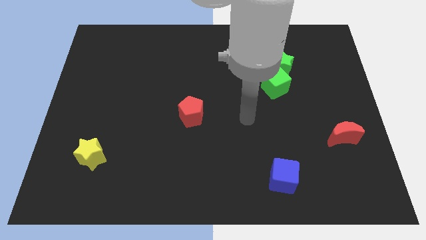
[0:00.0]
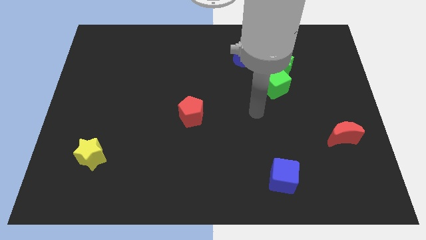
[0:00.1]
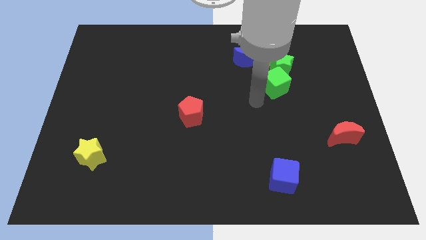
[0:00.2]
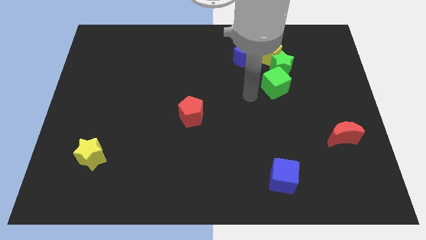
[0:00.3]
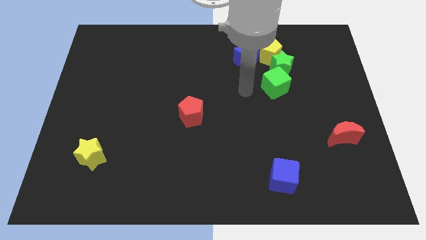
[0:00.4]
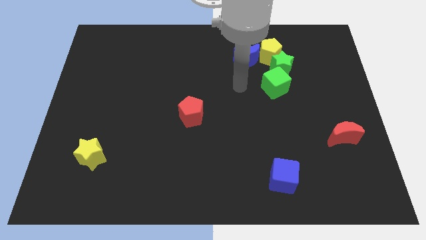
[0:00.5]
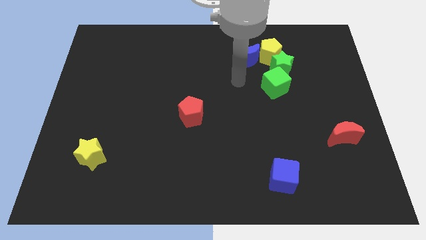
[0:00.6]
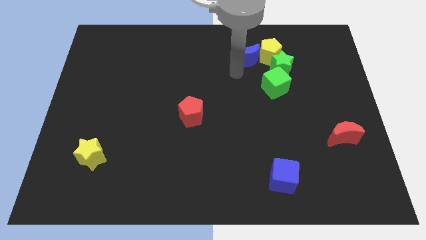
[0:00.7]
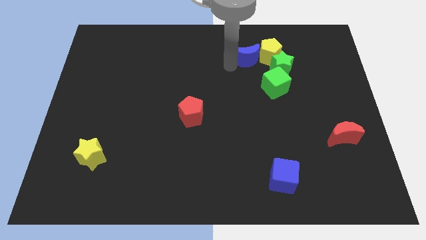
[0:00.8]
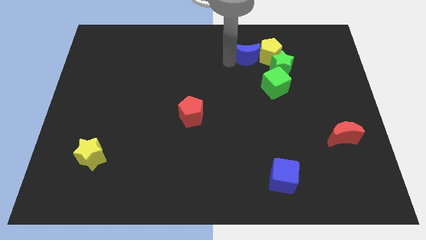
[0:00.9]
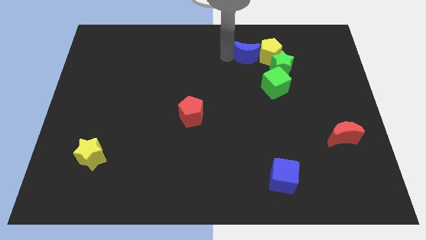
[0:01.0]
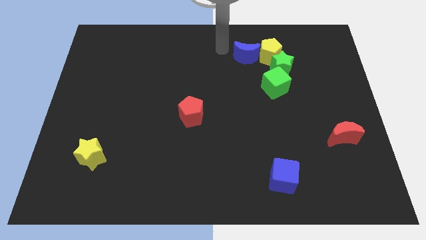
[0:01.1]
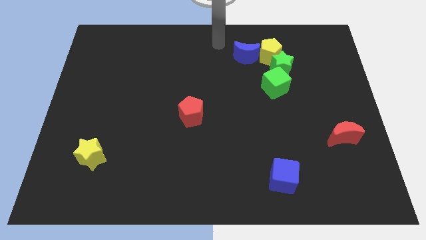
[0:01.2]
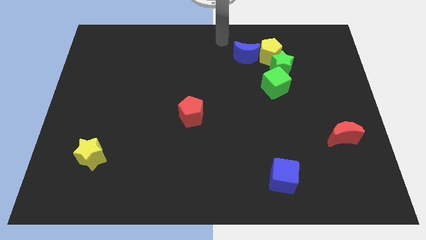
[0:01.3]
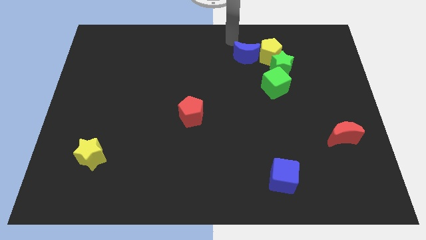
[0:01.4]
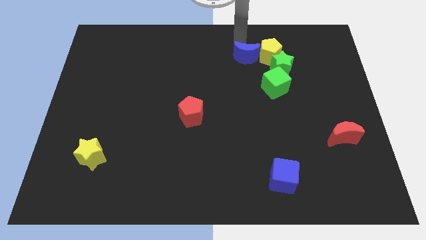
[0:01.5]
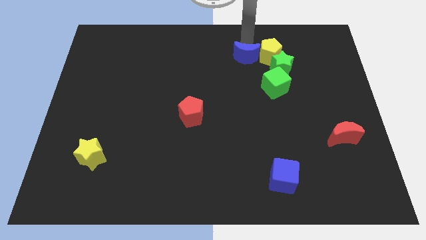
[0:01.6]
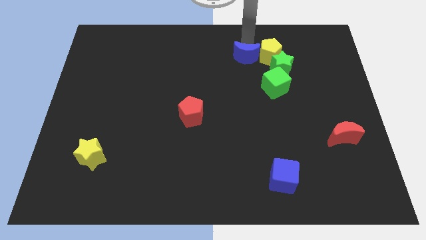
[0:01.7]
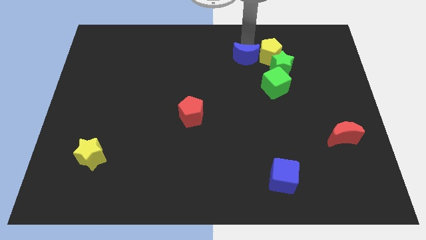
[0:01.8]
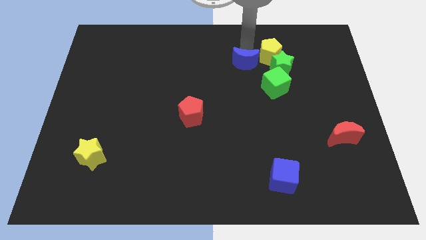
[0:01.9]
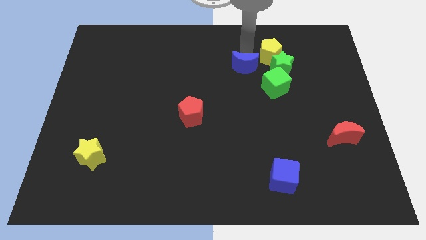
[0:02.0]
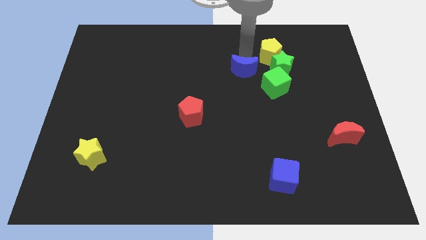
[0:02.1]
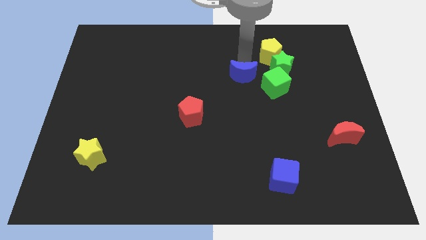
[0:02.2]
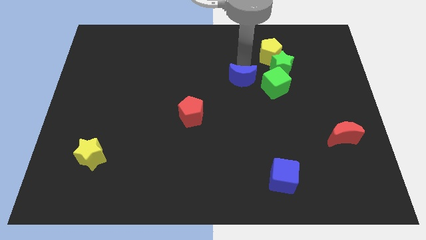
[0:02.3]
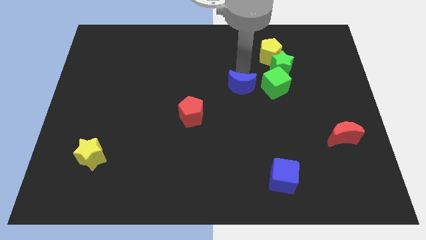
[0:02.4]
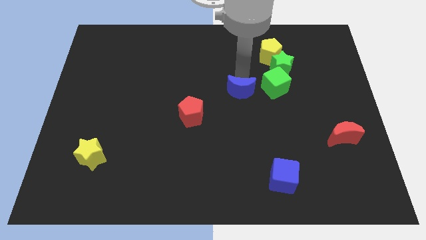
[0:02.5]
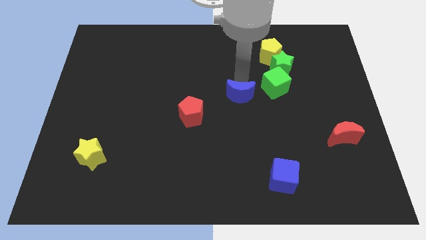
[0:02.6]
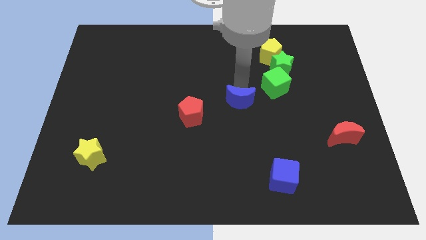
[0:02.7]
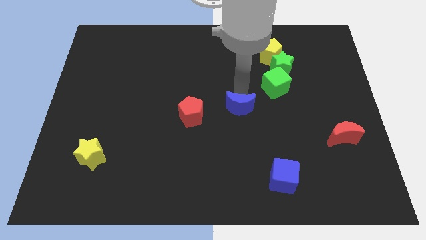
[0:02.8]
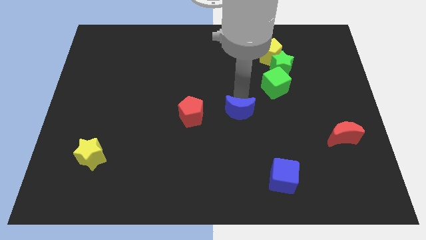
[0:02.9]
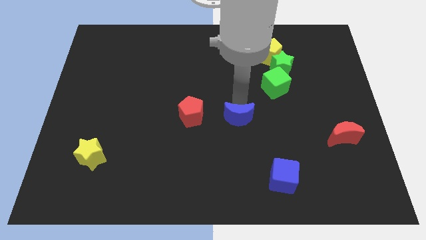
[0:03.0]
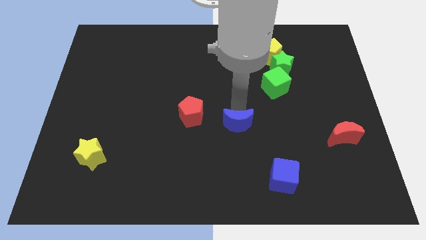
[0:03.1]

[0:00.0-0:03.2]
move the blue moon downwards

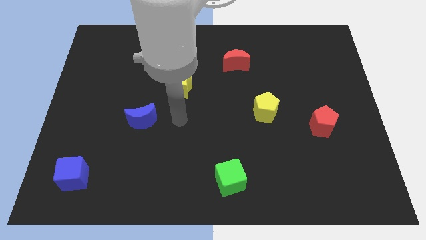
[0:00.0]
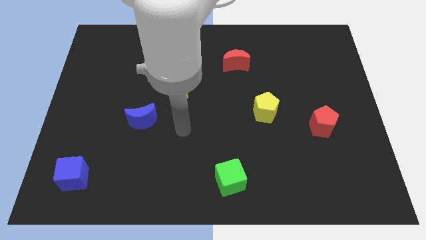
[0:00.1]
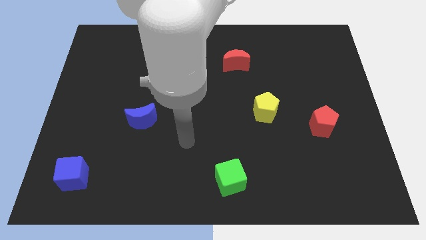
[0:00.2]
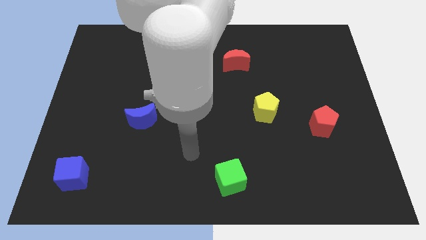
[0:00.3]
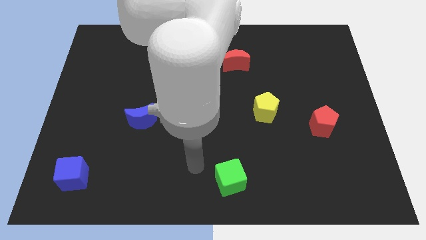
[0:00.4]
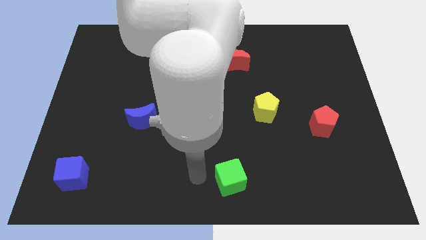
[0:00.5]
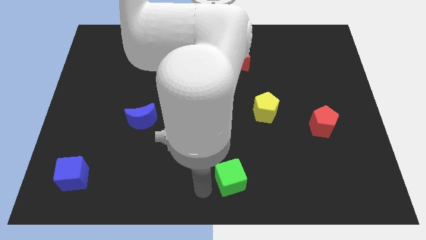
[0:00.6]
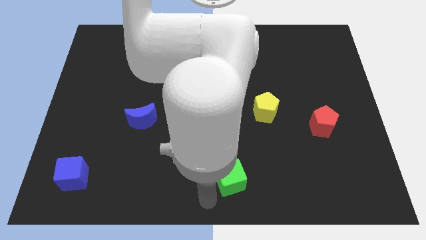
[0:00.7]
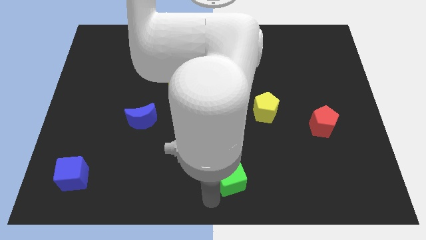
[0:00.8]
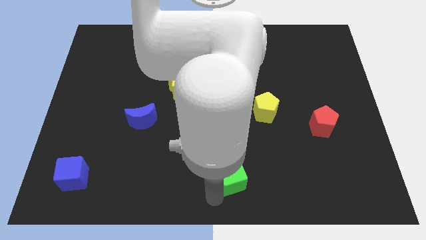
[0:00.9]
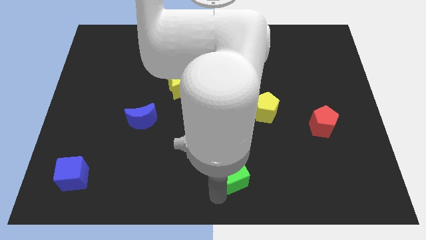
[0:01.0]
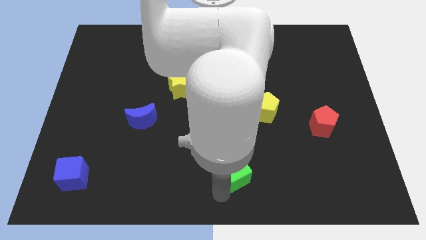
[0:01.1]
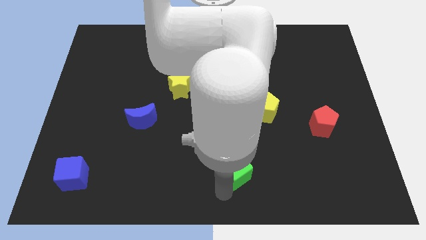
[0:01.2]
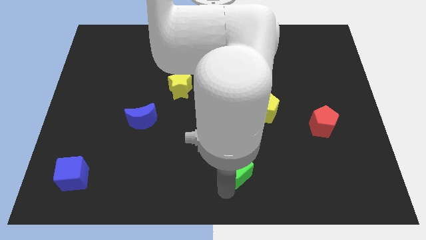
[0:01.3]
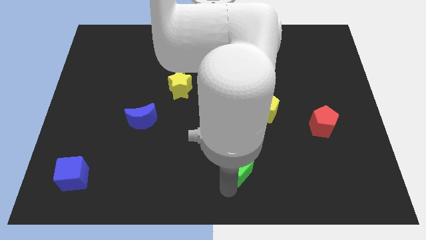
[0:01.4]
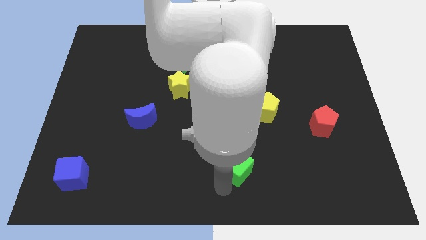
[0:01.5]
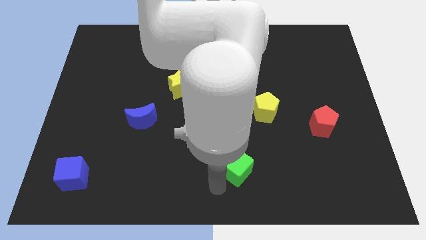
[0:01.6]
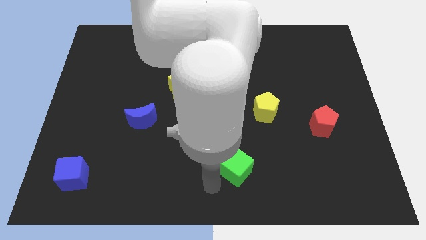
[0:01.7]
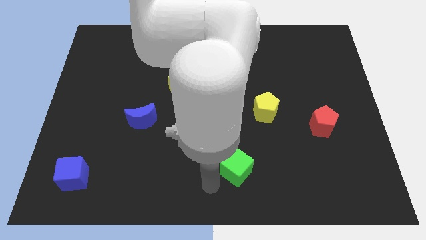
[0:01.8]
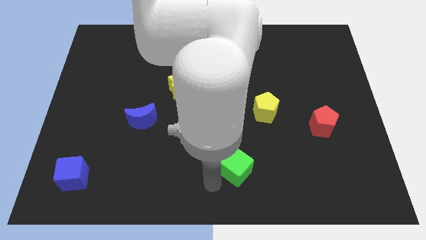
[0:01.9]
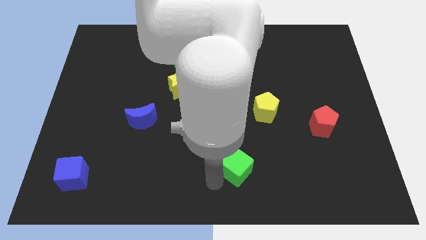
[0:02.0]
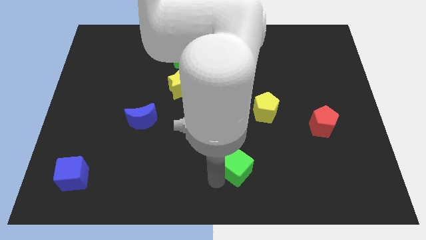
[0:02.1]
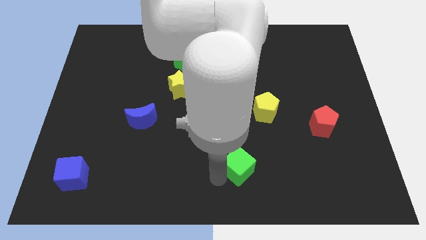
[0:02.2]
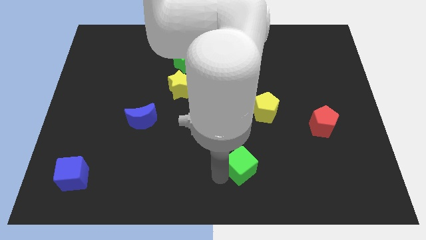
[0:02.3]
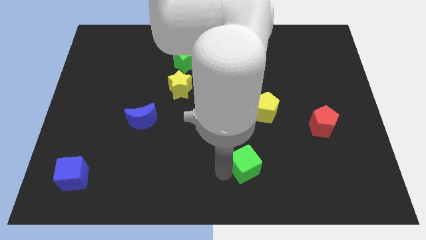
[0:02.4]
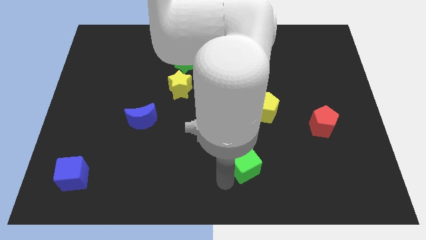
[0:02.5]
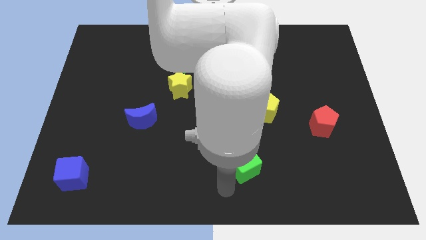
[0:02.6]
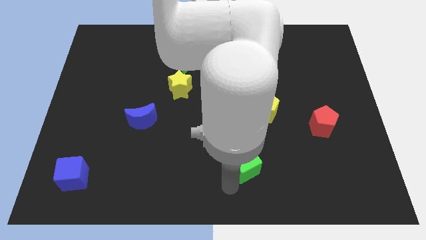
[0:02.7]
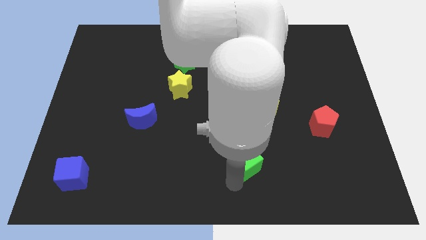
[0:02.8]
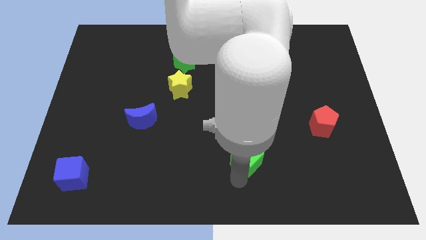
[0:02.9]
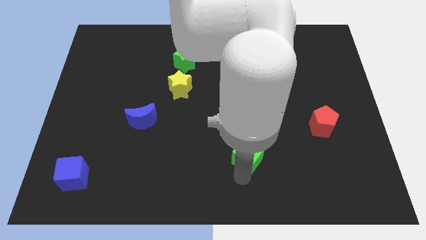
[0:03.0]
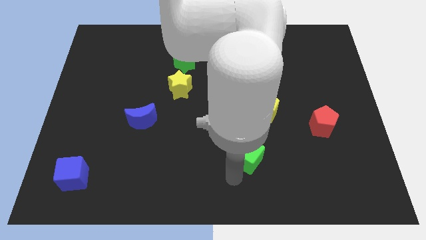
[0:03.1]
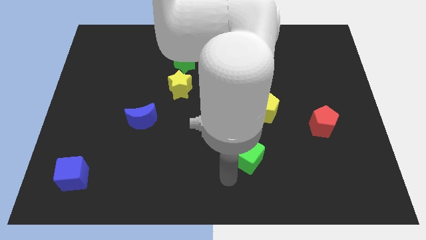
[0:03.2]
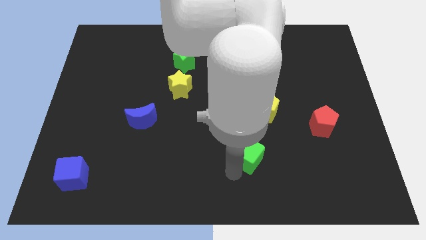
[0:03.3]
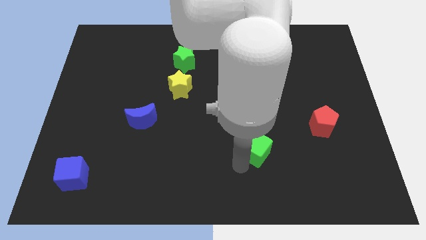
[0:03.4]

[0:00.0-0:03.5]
push the green cube slightly up and to the right diagonally

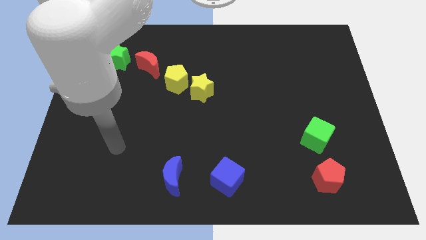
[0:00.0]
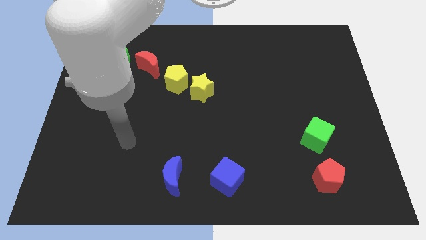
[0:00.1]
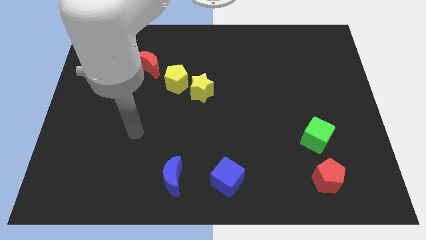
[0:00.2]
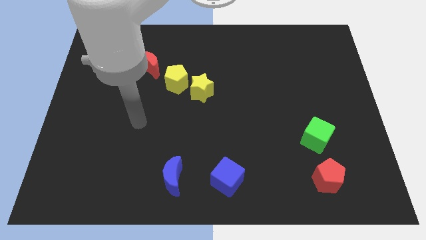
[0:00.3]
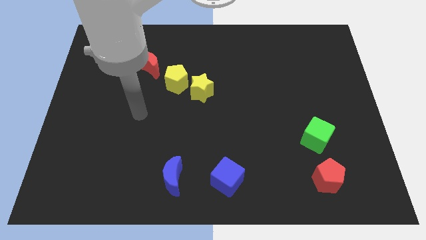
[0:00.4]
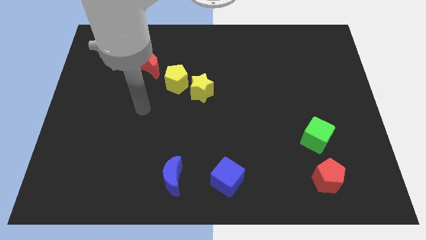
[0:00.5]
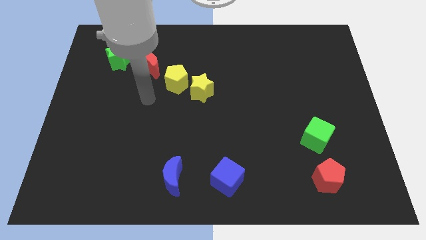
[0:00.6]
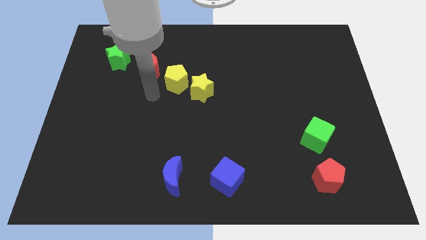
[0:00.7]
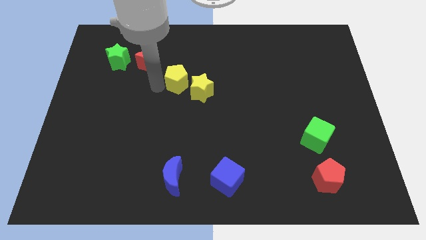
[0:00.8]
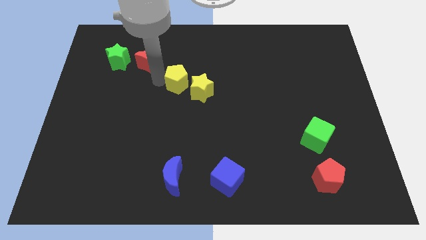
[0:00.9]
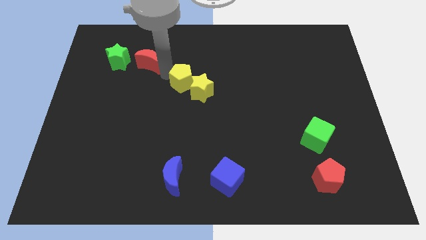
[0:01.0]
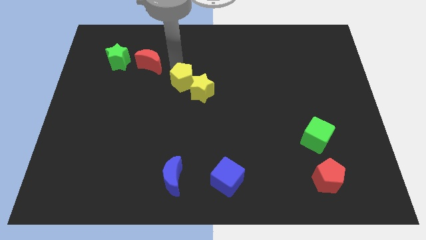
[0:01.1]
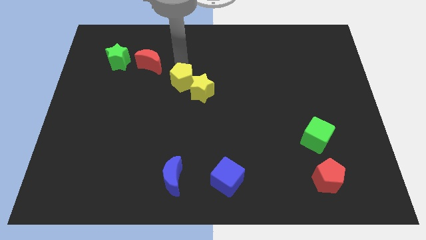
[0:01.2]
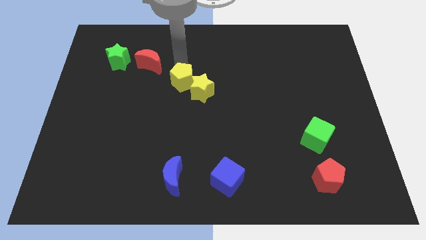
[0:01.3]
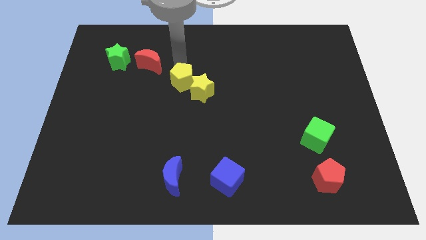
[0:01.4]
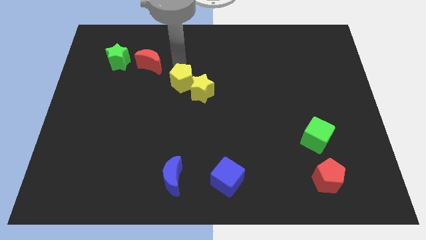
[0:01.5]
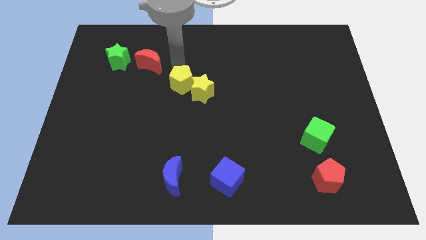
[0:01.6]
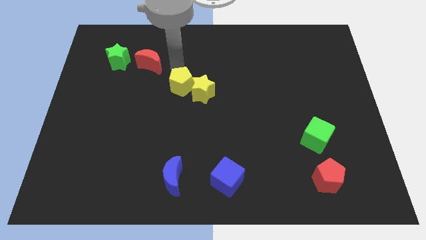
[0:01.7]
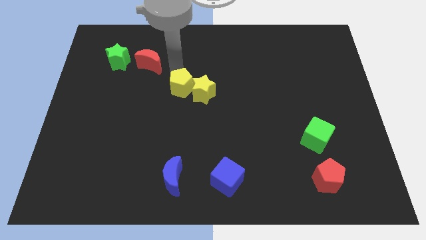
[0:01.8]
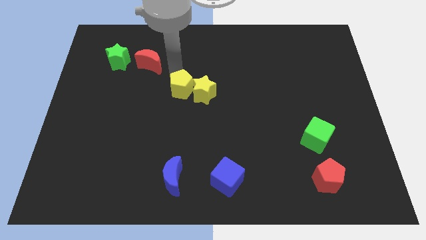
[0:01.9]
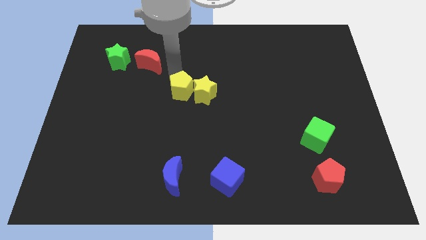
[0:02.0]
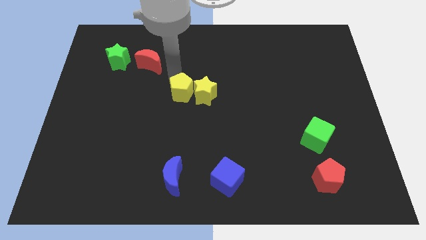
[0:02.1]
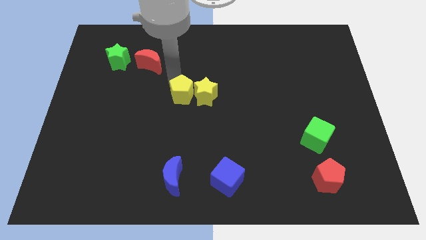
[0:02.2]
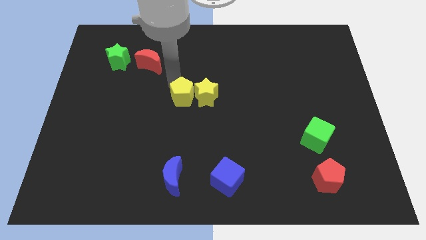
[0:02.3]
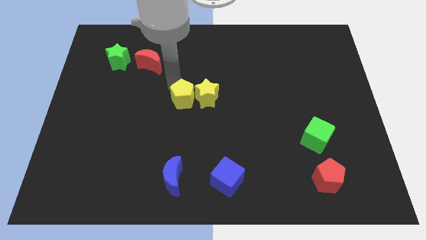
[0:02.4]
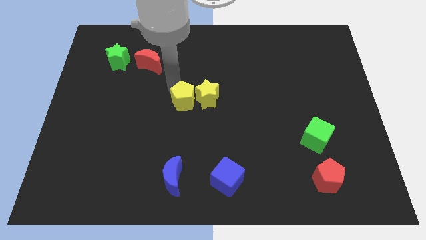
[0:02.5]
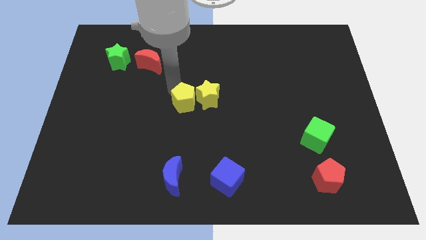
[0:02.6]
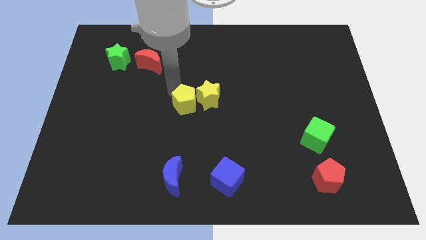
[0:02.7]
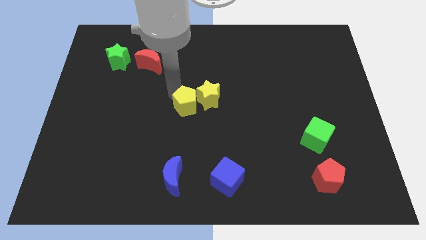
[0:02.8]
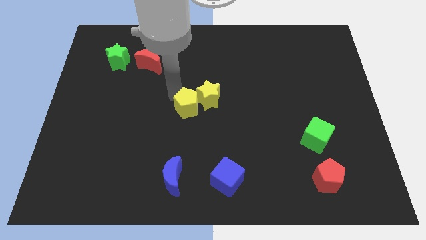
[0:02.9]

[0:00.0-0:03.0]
slightly move the yellow pentagon downwards and then to the right
